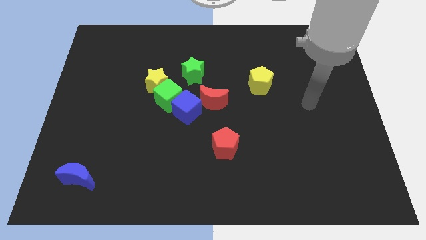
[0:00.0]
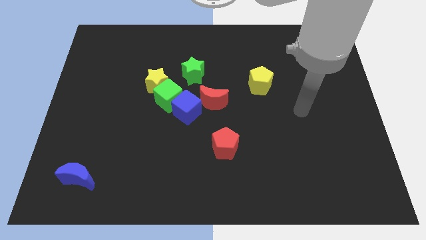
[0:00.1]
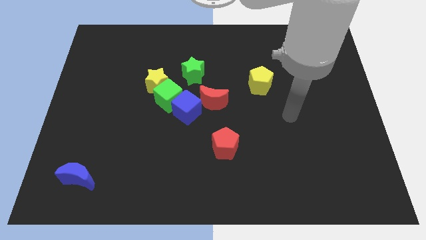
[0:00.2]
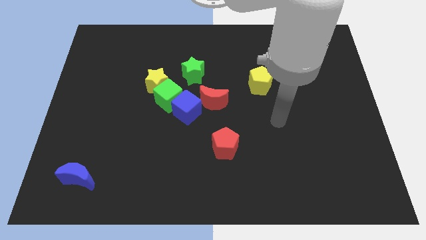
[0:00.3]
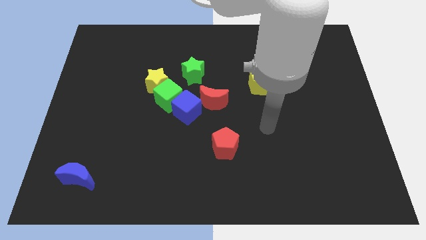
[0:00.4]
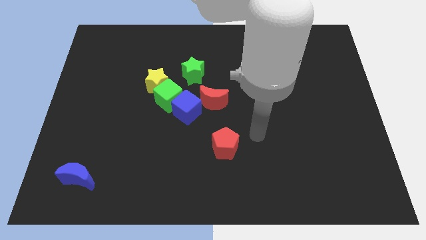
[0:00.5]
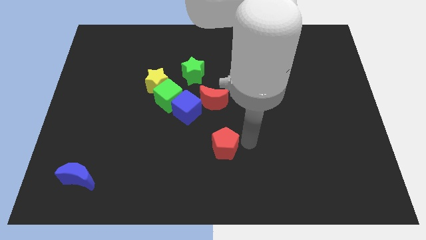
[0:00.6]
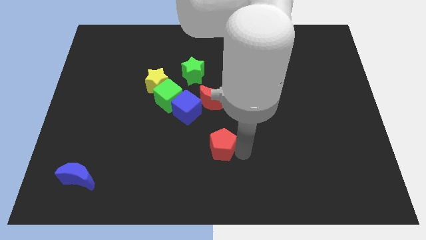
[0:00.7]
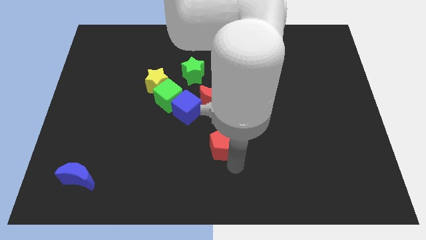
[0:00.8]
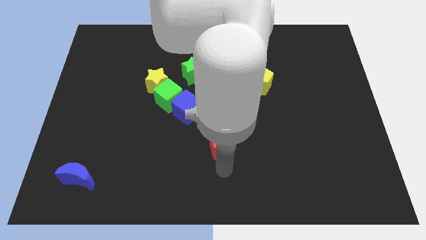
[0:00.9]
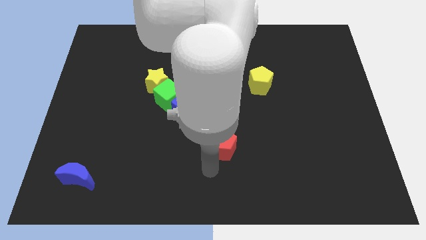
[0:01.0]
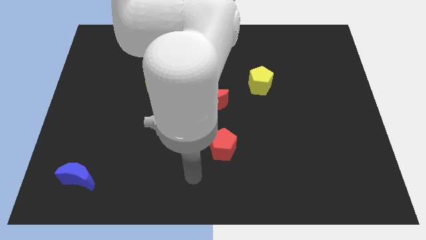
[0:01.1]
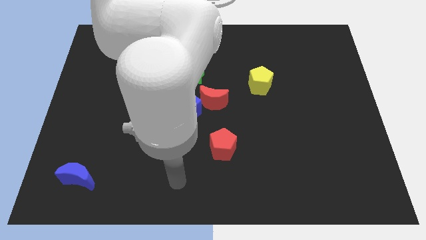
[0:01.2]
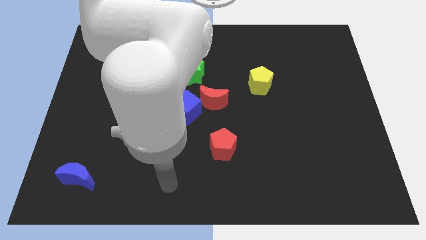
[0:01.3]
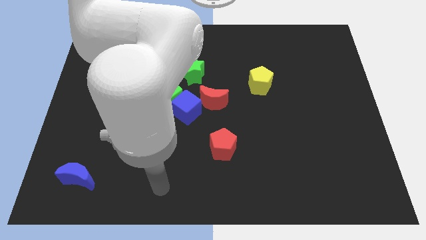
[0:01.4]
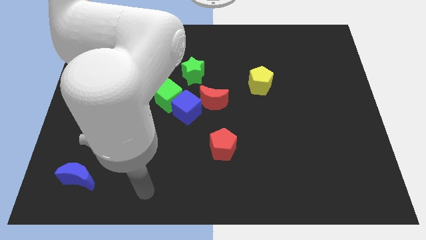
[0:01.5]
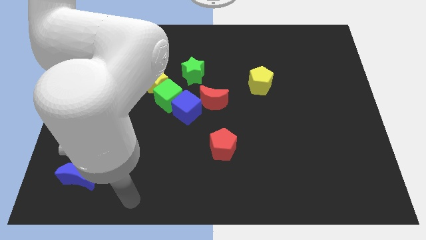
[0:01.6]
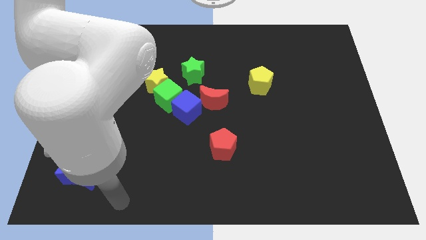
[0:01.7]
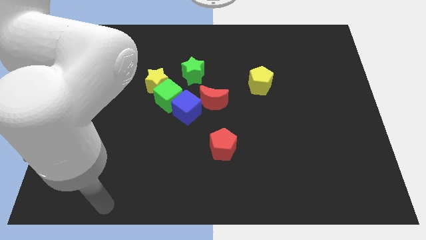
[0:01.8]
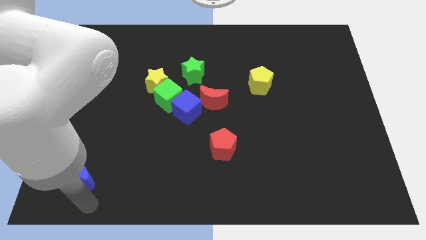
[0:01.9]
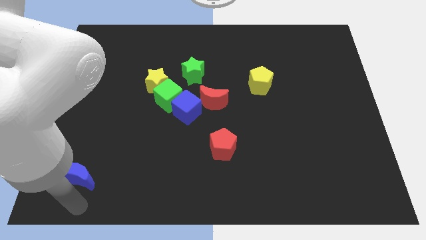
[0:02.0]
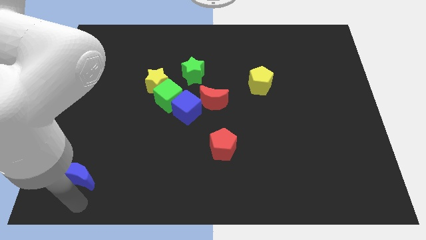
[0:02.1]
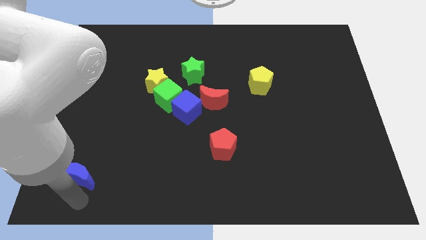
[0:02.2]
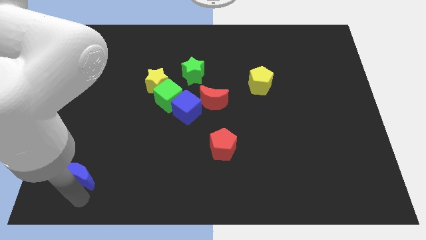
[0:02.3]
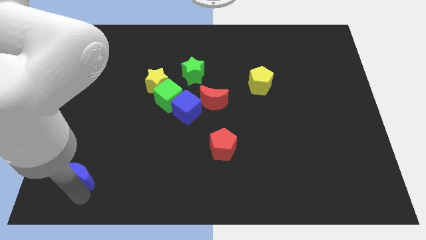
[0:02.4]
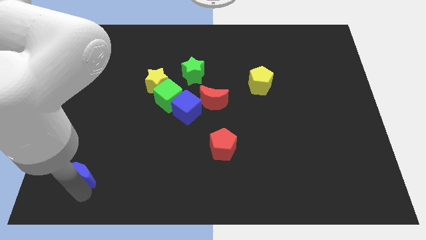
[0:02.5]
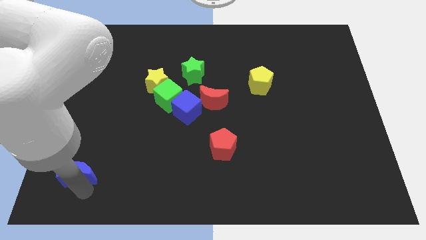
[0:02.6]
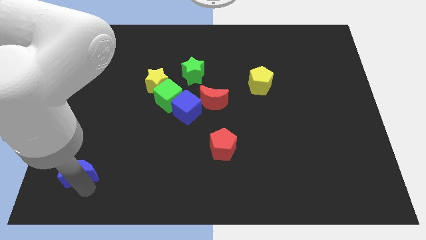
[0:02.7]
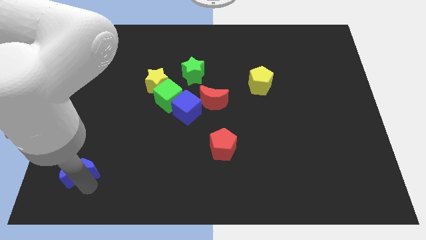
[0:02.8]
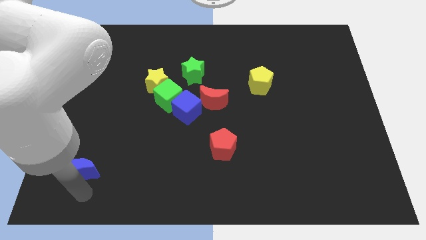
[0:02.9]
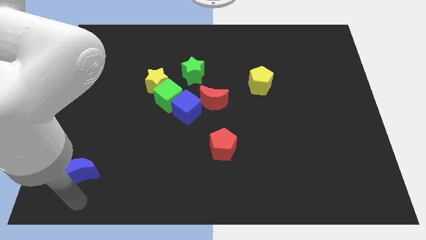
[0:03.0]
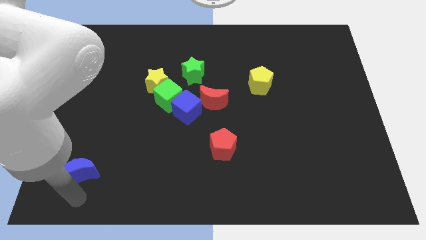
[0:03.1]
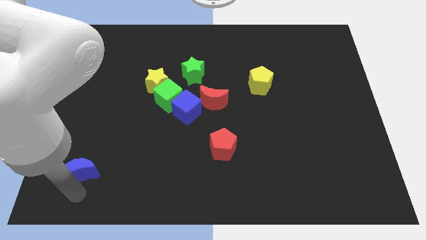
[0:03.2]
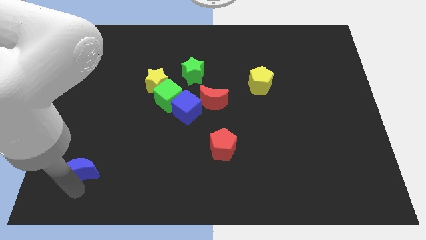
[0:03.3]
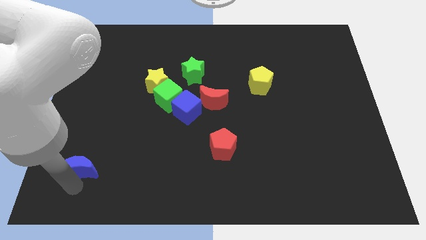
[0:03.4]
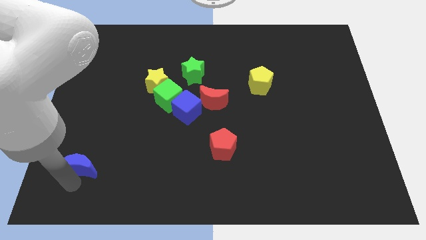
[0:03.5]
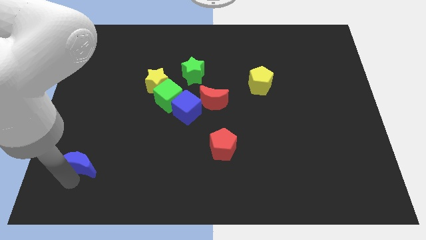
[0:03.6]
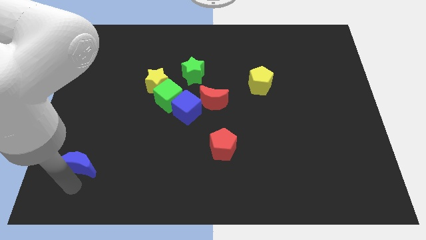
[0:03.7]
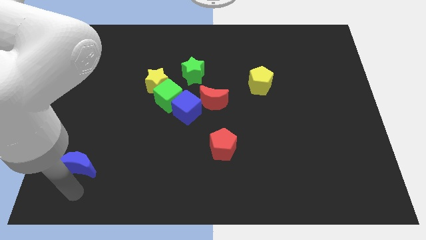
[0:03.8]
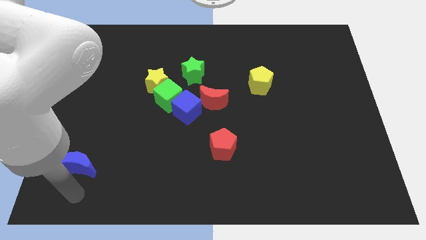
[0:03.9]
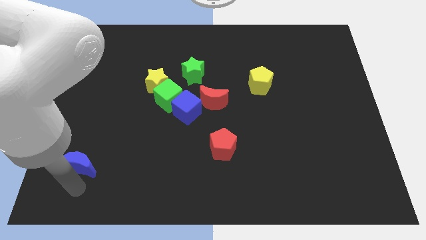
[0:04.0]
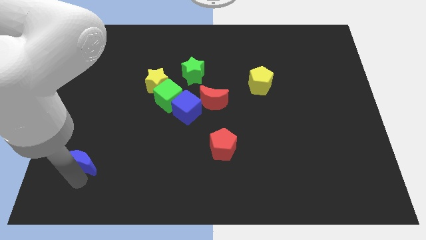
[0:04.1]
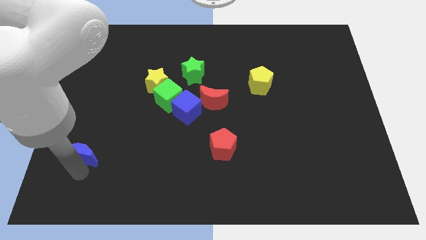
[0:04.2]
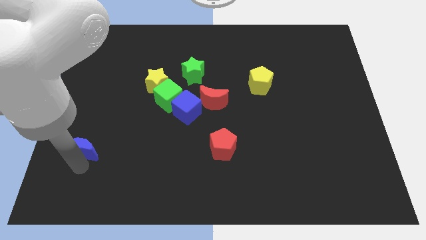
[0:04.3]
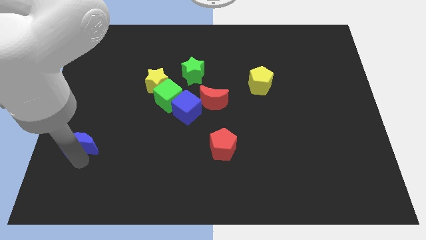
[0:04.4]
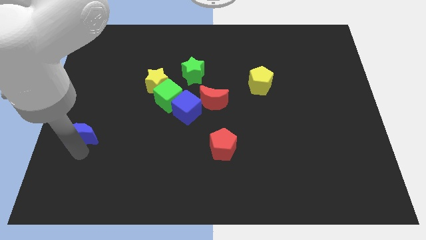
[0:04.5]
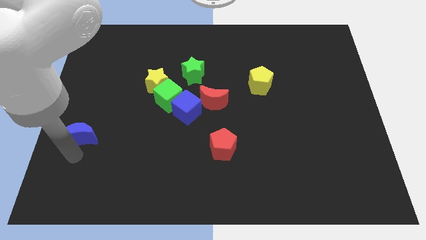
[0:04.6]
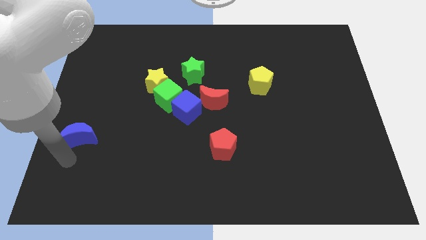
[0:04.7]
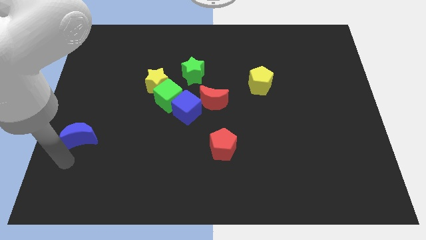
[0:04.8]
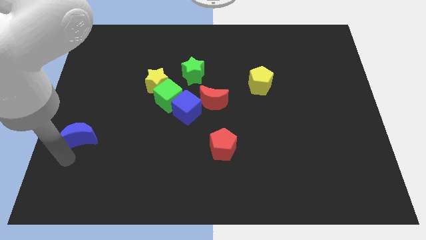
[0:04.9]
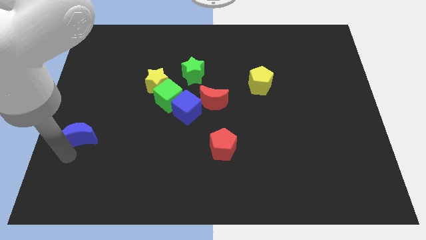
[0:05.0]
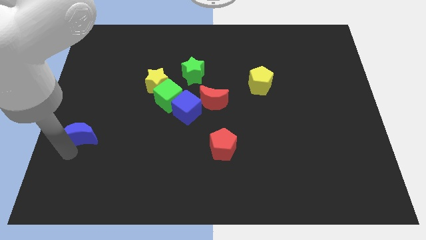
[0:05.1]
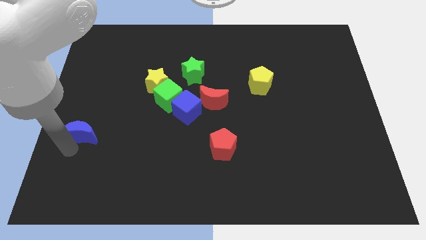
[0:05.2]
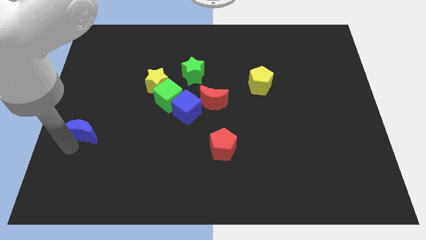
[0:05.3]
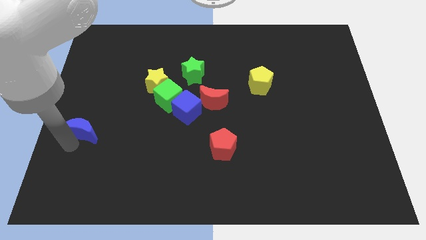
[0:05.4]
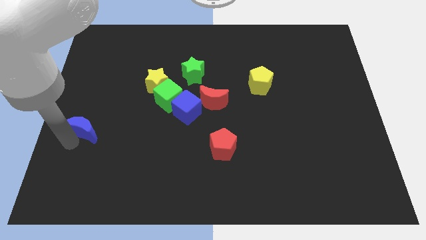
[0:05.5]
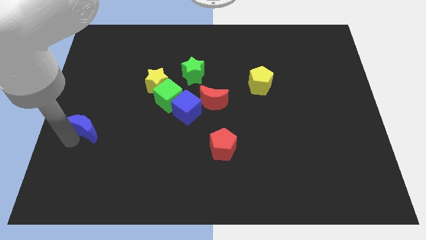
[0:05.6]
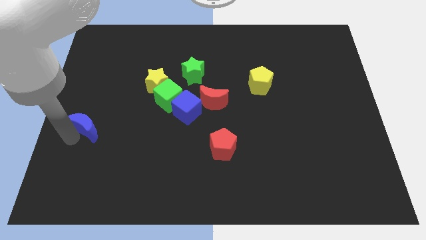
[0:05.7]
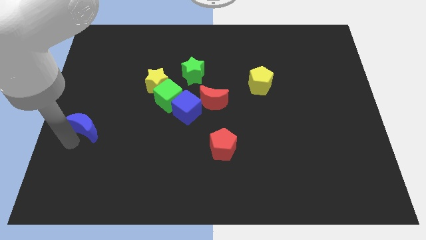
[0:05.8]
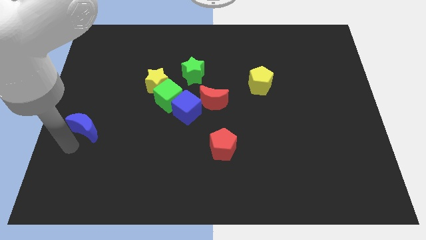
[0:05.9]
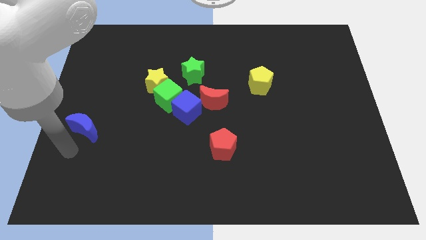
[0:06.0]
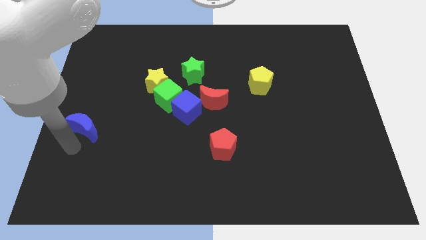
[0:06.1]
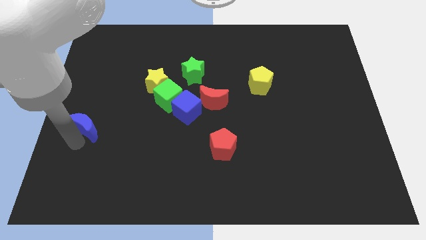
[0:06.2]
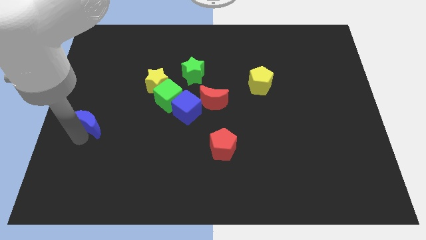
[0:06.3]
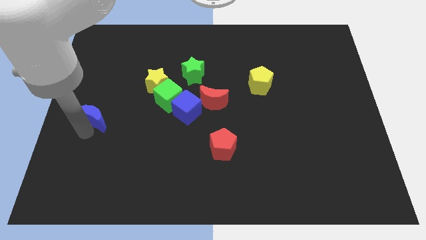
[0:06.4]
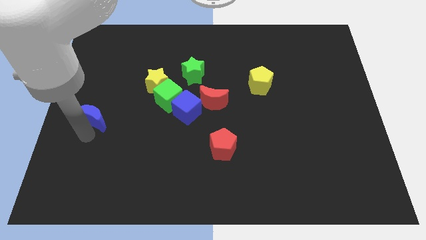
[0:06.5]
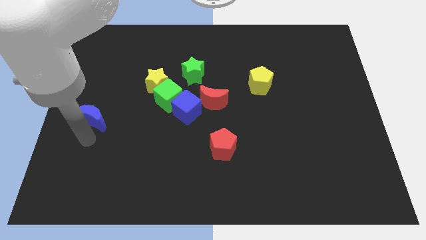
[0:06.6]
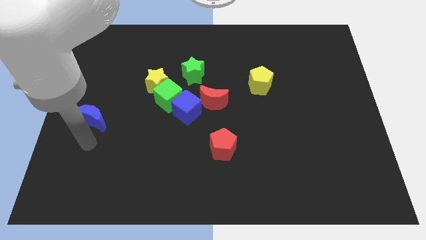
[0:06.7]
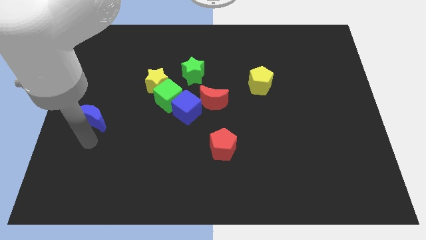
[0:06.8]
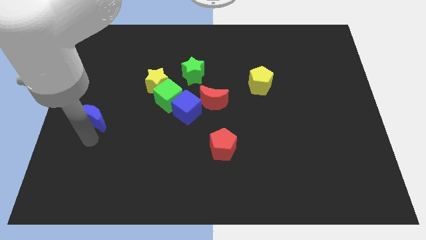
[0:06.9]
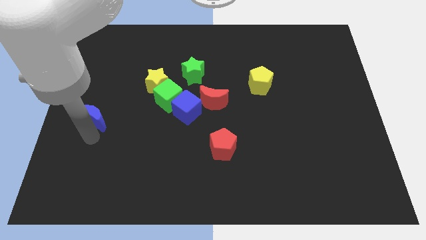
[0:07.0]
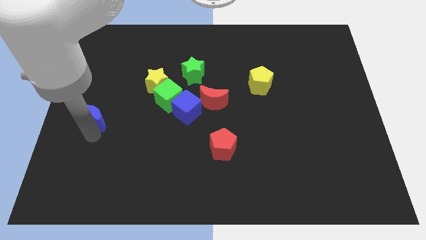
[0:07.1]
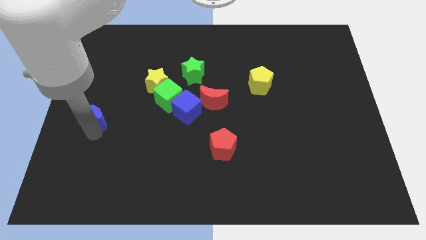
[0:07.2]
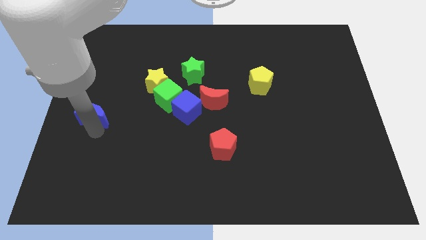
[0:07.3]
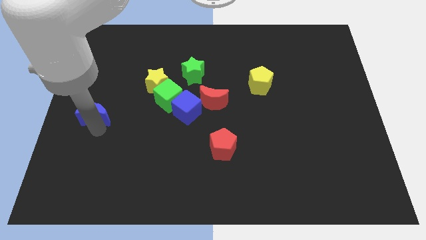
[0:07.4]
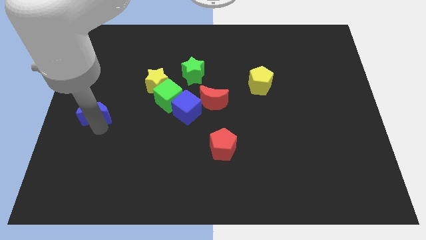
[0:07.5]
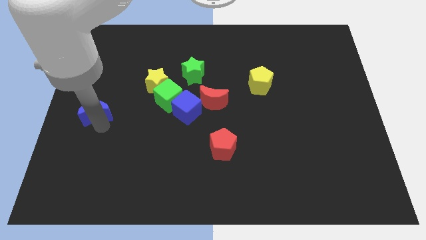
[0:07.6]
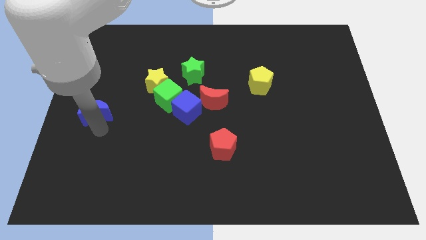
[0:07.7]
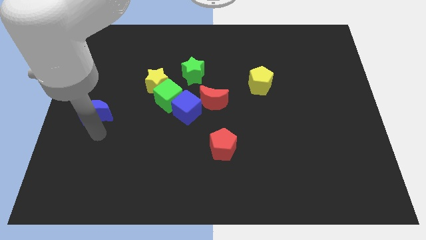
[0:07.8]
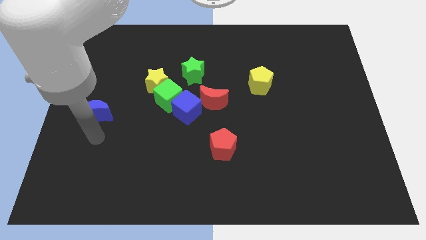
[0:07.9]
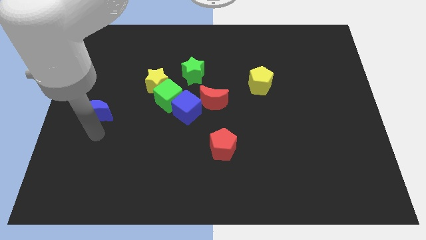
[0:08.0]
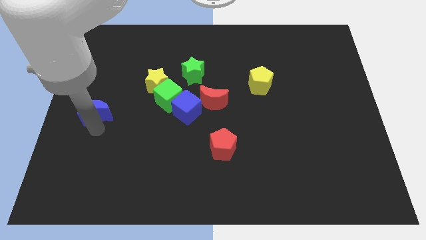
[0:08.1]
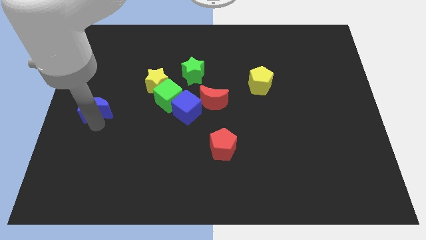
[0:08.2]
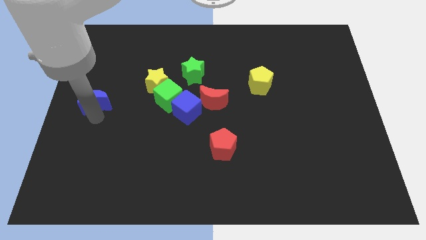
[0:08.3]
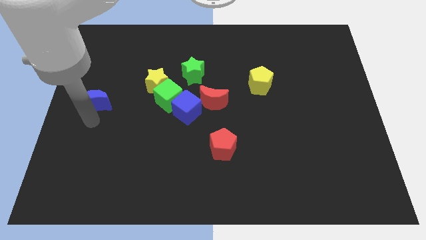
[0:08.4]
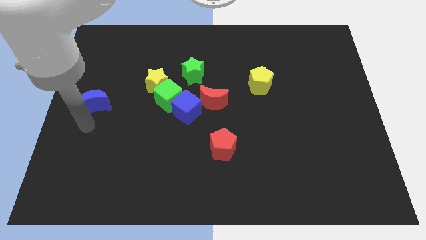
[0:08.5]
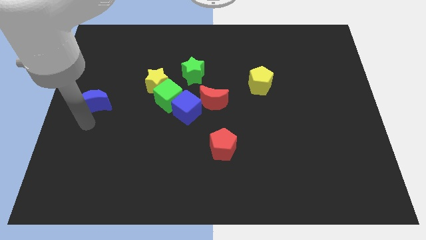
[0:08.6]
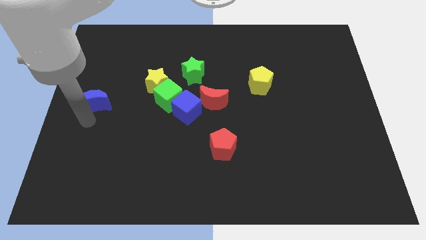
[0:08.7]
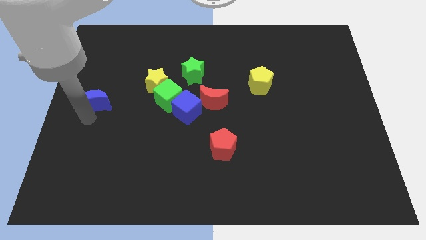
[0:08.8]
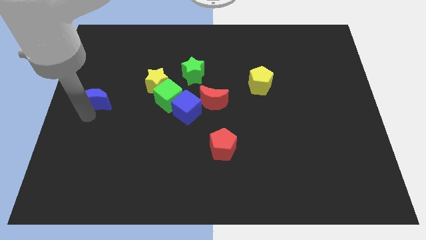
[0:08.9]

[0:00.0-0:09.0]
slide the blue moon up
